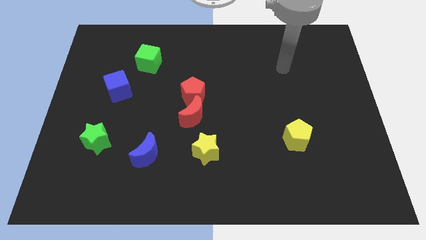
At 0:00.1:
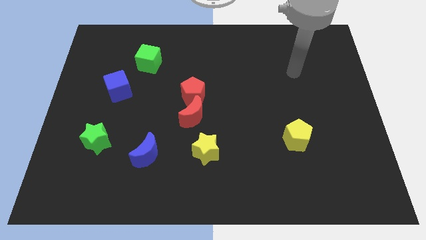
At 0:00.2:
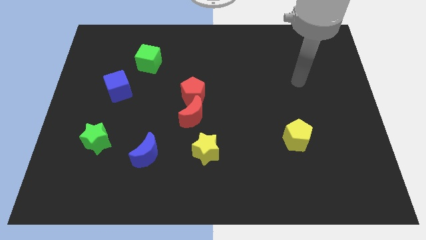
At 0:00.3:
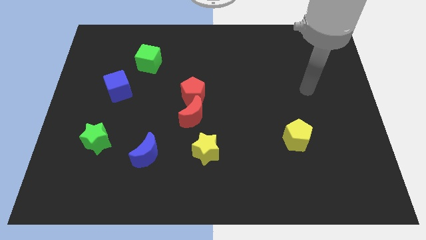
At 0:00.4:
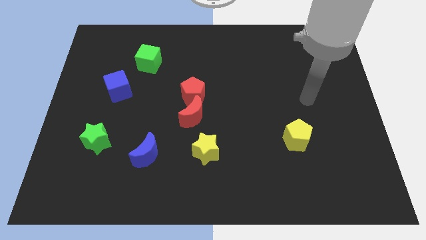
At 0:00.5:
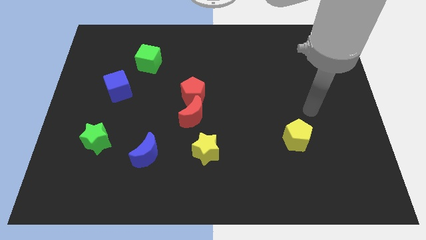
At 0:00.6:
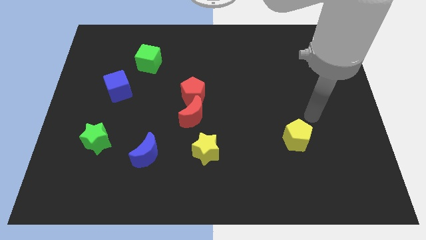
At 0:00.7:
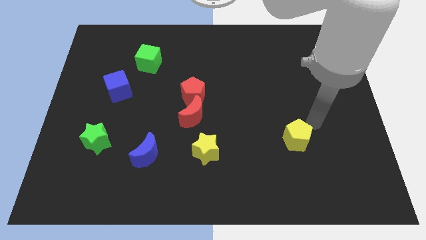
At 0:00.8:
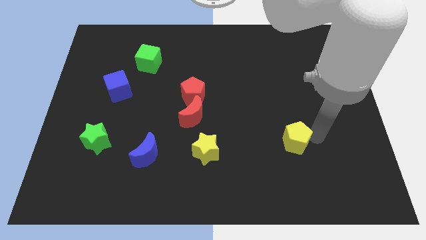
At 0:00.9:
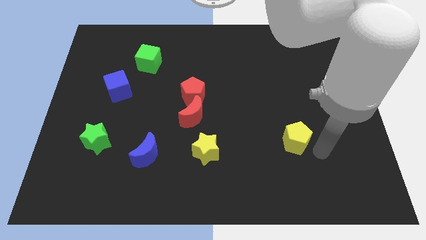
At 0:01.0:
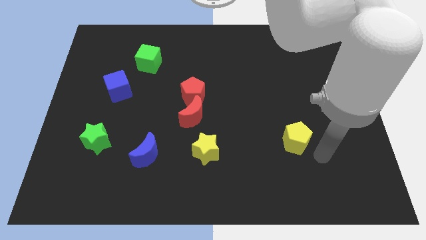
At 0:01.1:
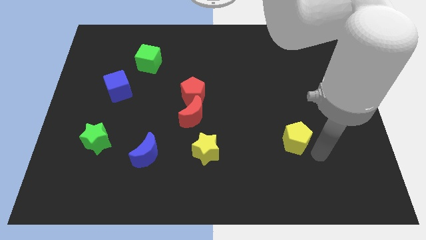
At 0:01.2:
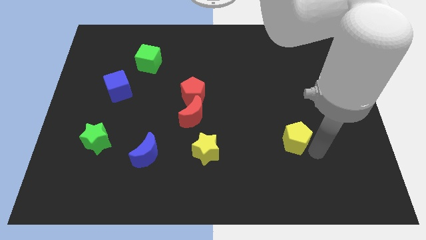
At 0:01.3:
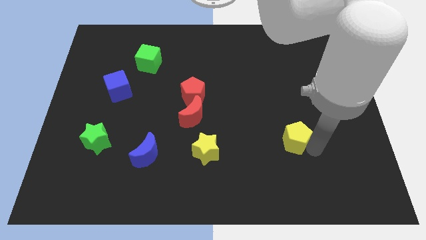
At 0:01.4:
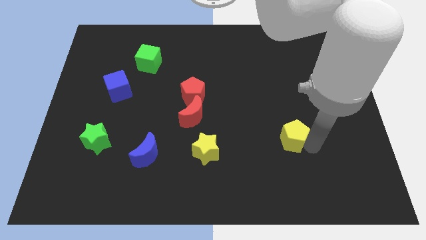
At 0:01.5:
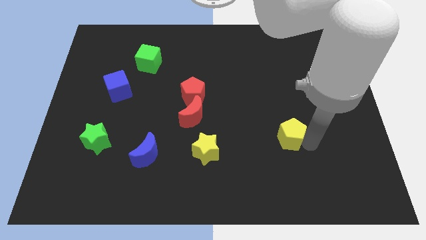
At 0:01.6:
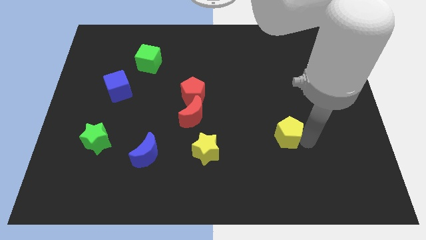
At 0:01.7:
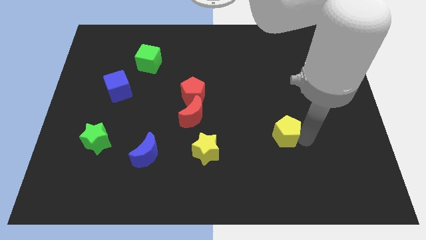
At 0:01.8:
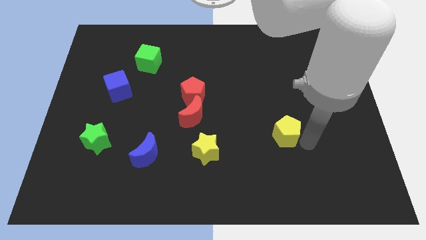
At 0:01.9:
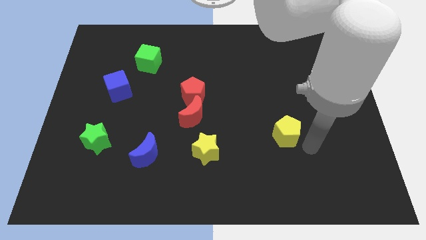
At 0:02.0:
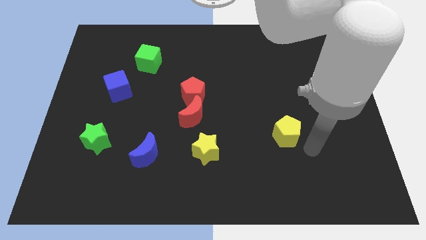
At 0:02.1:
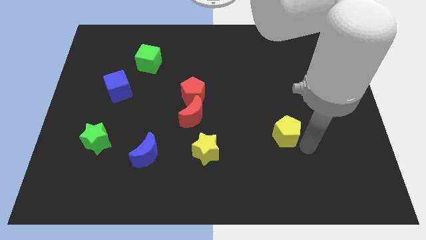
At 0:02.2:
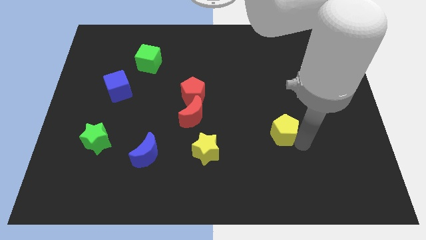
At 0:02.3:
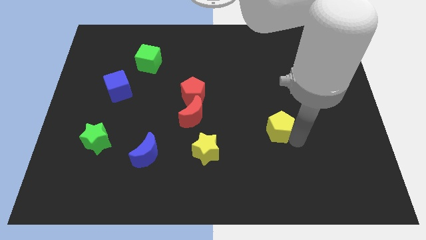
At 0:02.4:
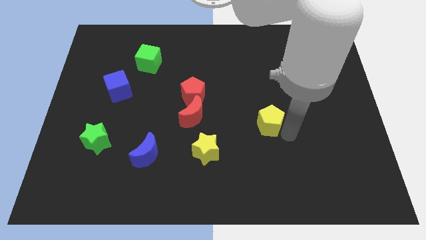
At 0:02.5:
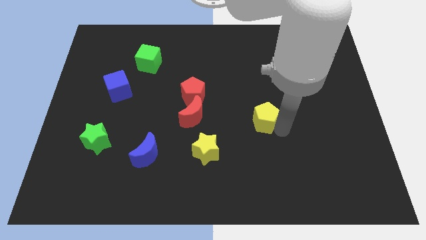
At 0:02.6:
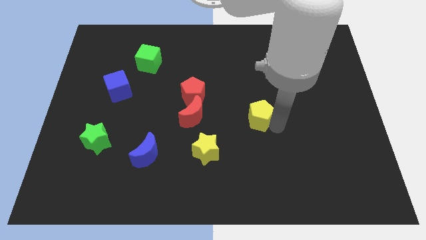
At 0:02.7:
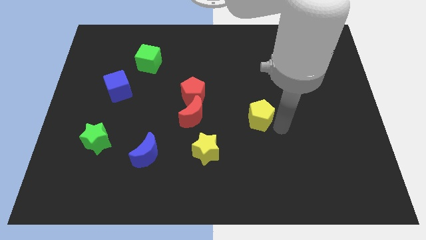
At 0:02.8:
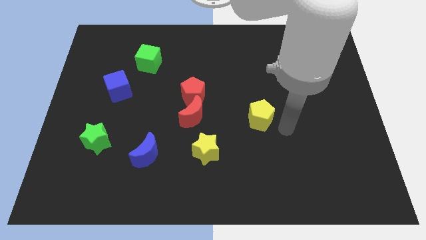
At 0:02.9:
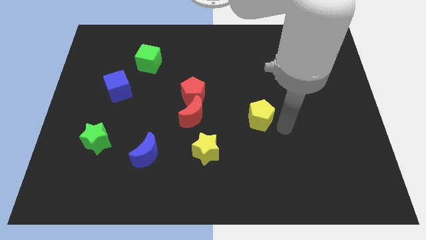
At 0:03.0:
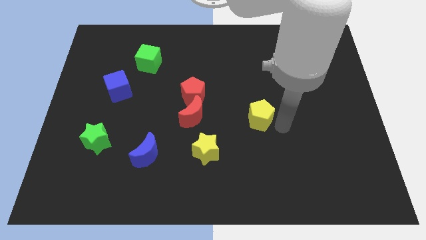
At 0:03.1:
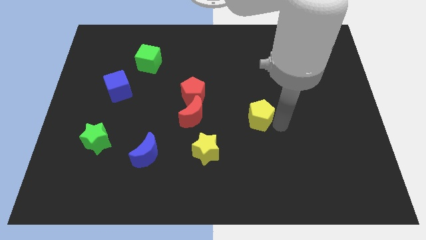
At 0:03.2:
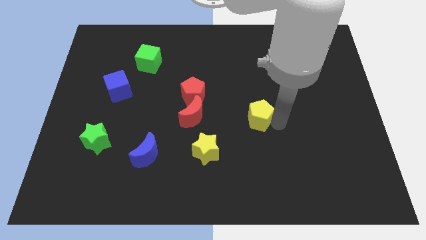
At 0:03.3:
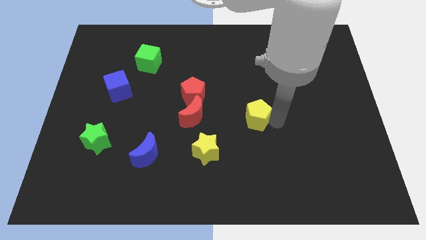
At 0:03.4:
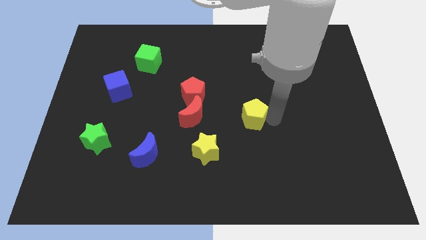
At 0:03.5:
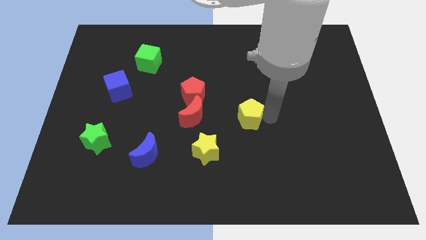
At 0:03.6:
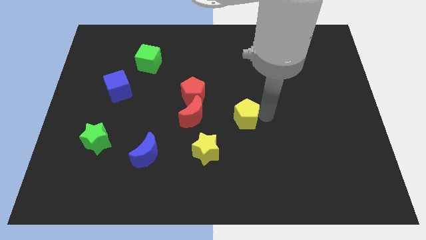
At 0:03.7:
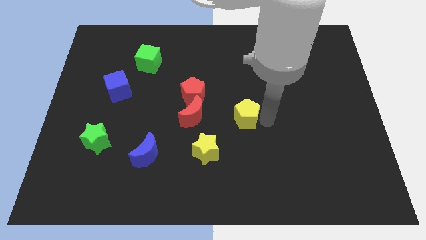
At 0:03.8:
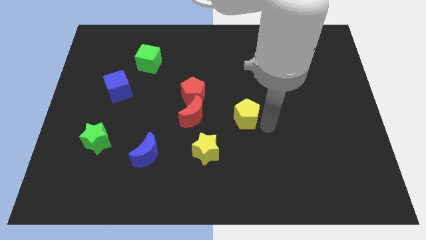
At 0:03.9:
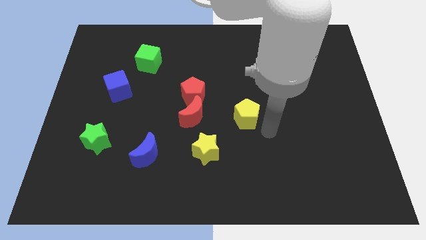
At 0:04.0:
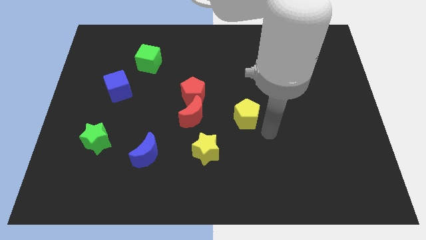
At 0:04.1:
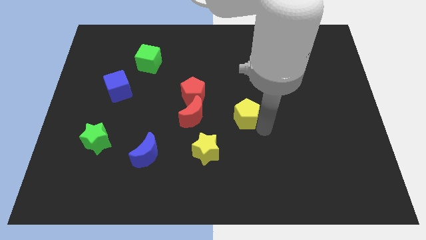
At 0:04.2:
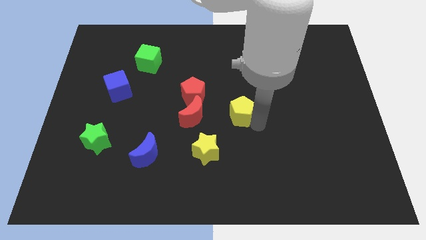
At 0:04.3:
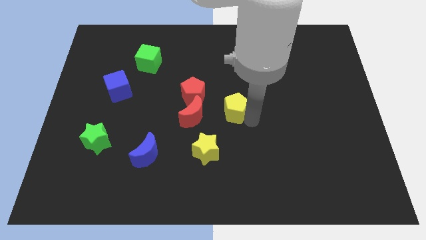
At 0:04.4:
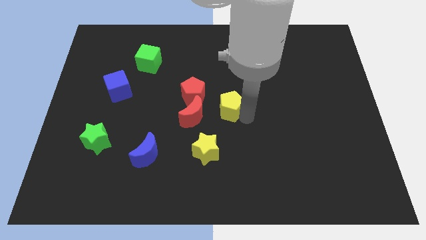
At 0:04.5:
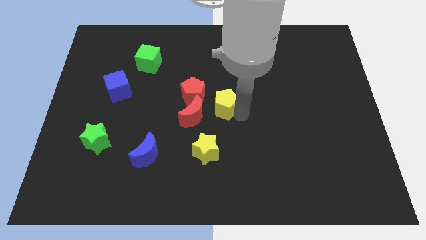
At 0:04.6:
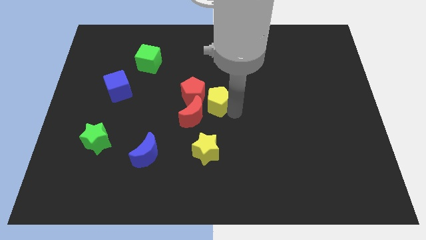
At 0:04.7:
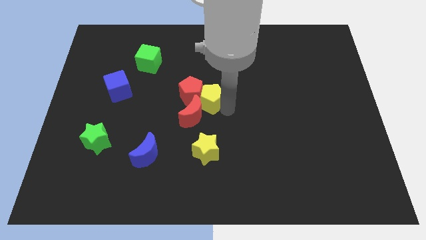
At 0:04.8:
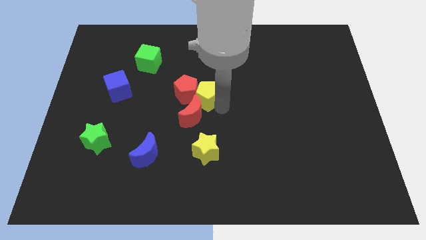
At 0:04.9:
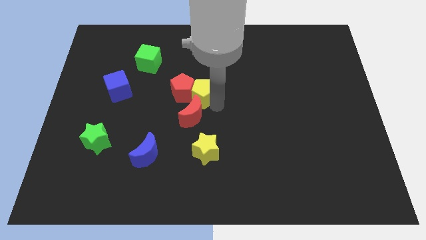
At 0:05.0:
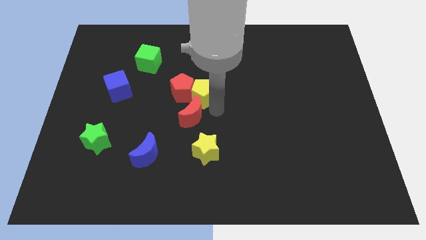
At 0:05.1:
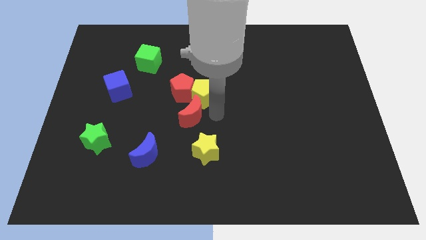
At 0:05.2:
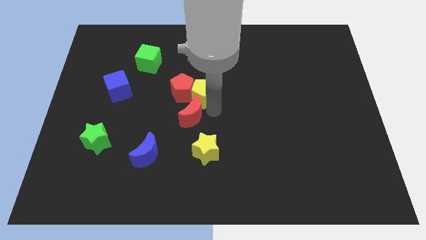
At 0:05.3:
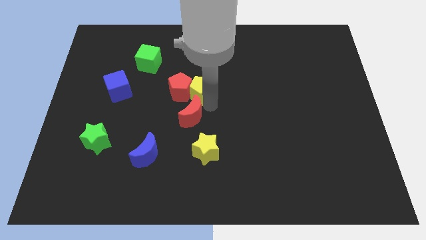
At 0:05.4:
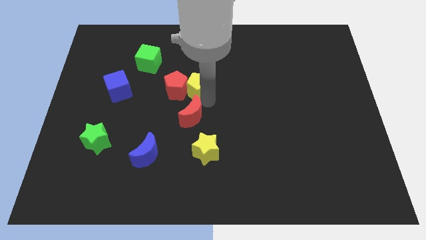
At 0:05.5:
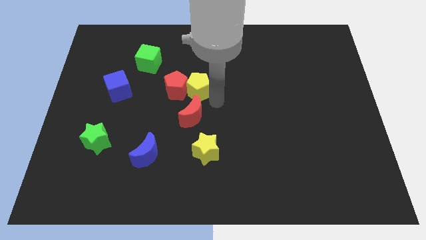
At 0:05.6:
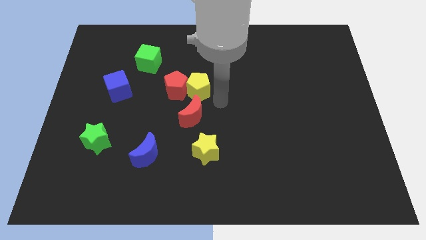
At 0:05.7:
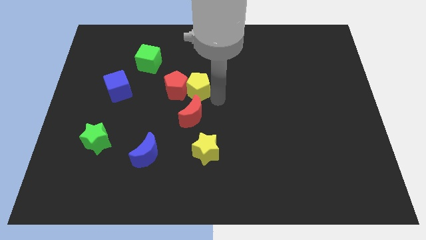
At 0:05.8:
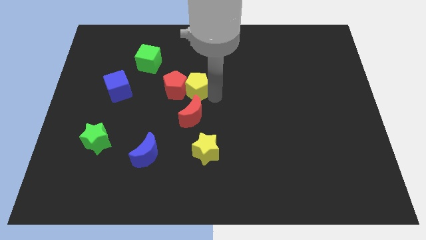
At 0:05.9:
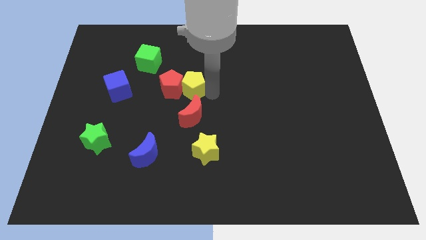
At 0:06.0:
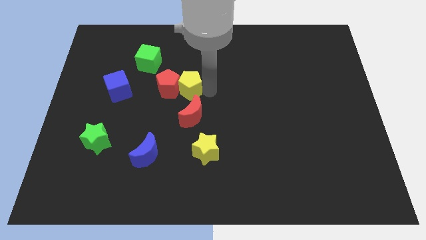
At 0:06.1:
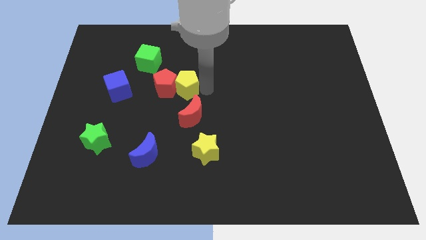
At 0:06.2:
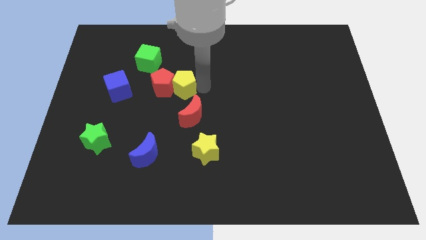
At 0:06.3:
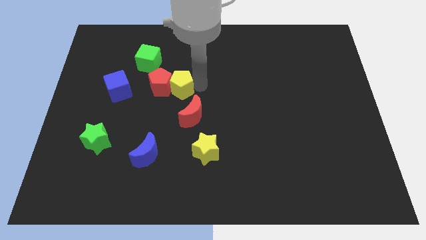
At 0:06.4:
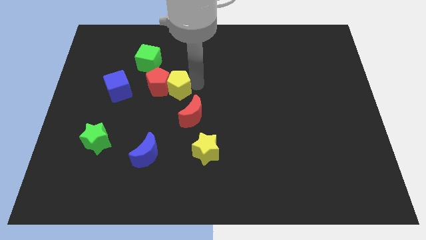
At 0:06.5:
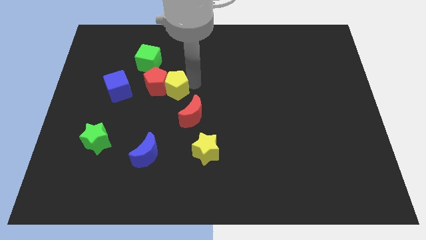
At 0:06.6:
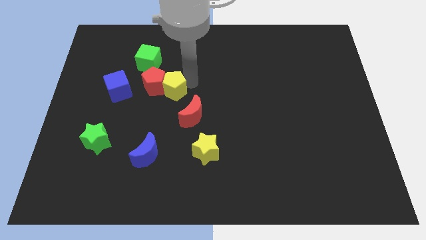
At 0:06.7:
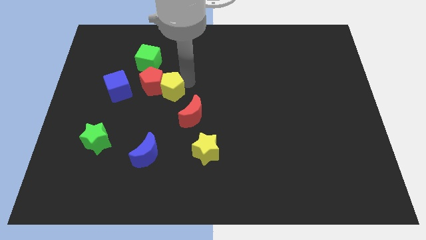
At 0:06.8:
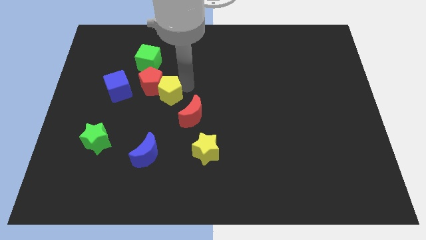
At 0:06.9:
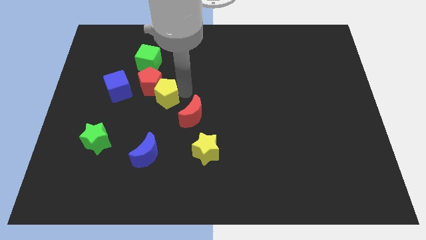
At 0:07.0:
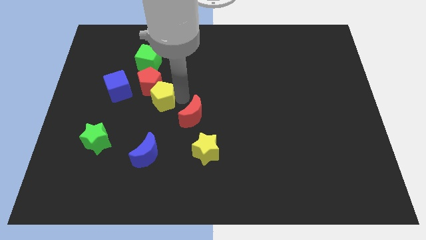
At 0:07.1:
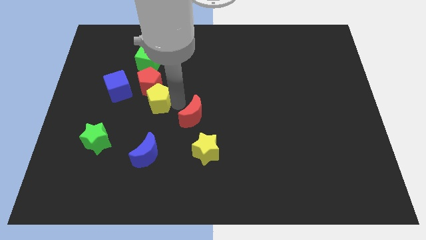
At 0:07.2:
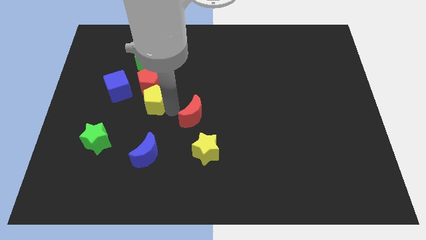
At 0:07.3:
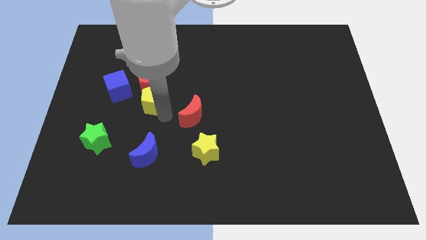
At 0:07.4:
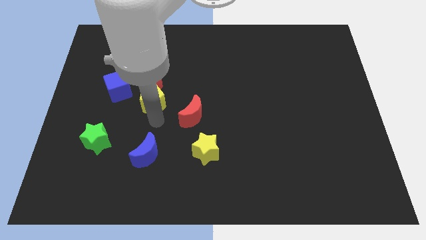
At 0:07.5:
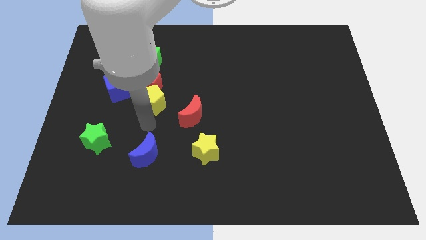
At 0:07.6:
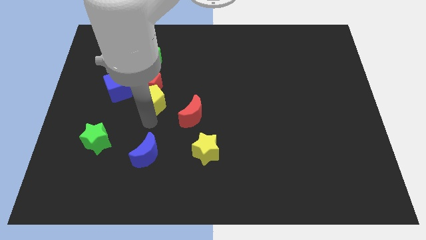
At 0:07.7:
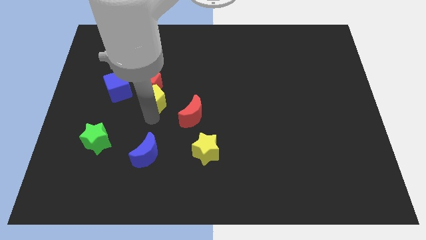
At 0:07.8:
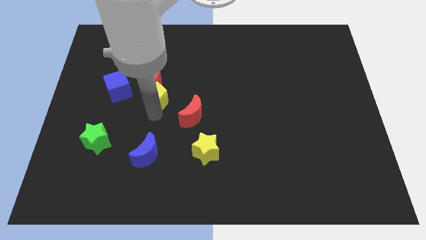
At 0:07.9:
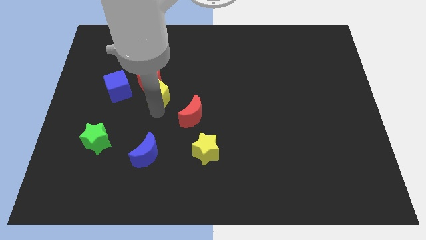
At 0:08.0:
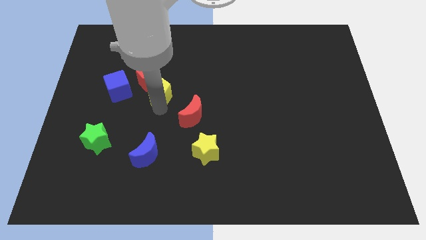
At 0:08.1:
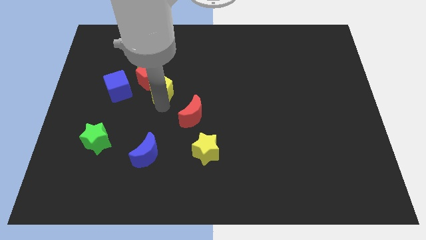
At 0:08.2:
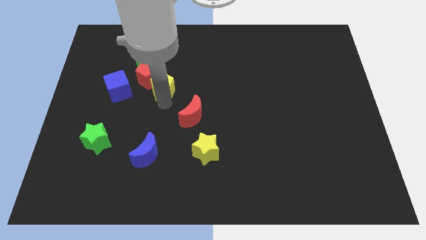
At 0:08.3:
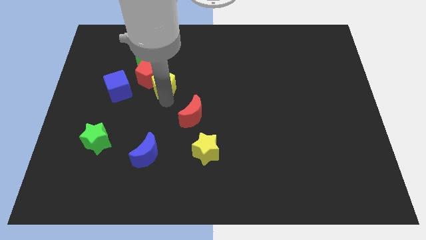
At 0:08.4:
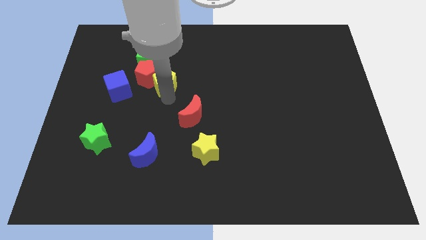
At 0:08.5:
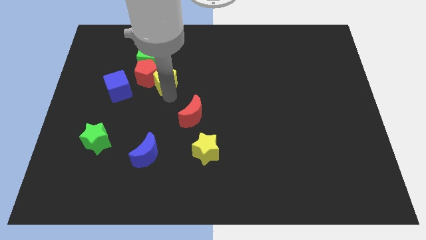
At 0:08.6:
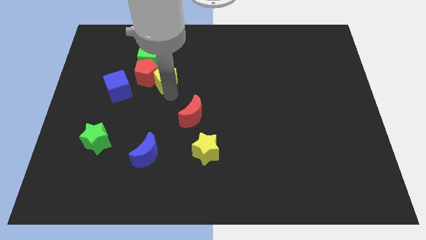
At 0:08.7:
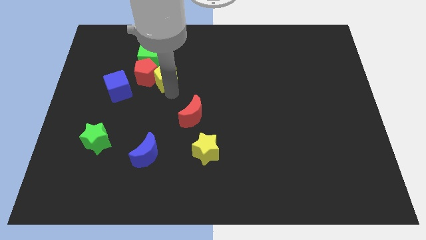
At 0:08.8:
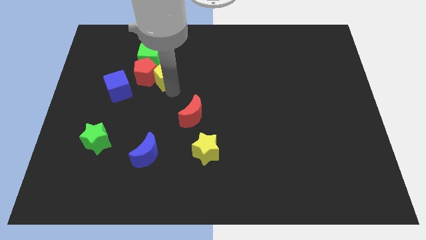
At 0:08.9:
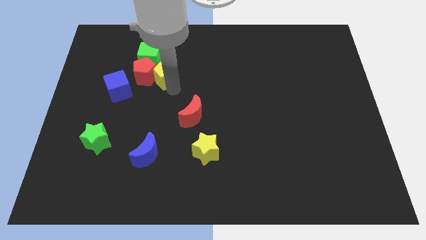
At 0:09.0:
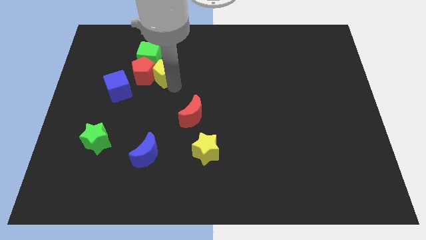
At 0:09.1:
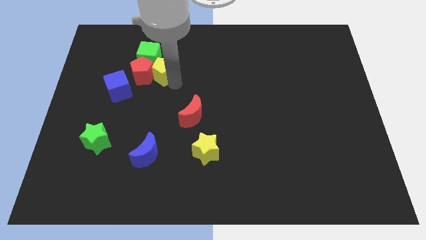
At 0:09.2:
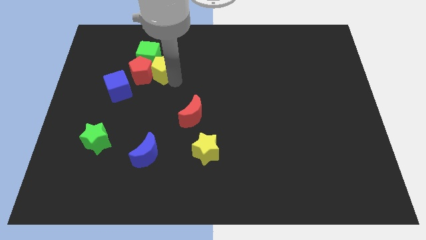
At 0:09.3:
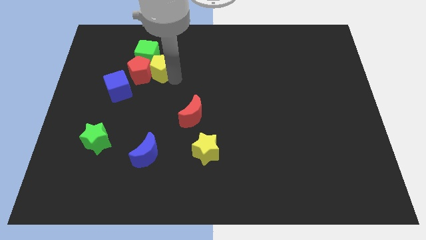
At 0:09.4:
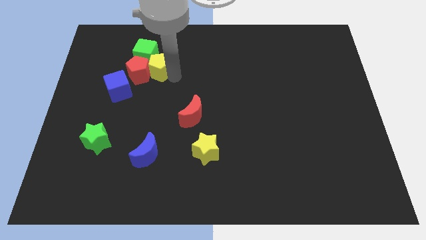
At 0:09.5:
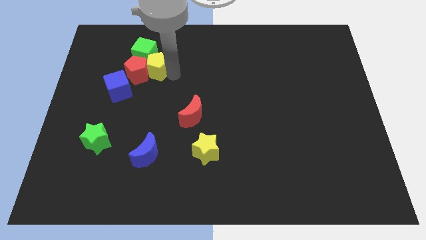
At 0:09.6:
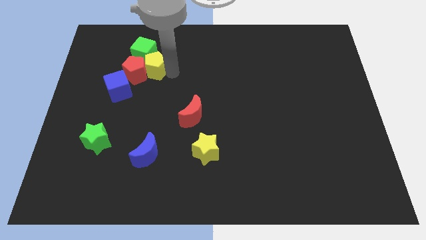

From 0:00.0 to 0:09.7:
move the yellow pentagon close to the green cube
